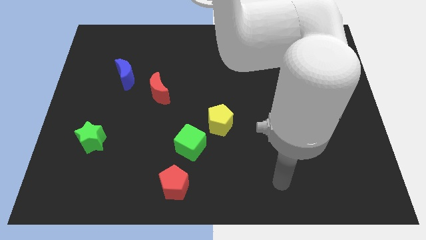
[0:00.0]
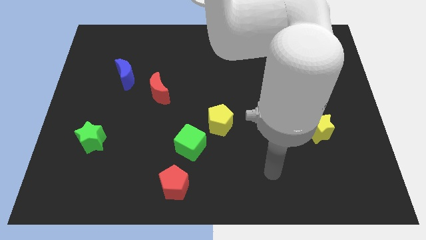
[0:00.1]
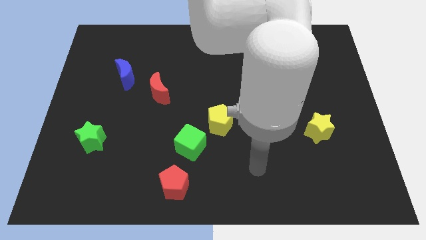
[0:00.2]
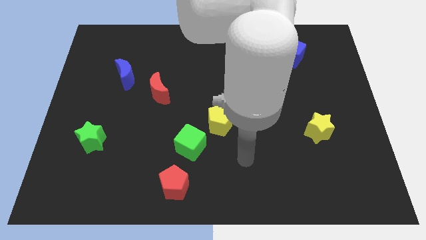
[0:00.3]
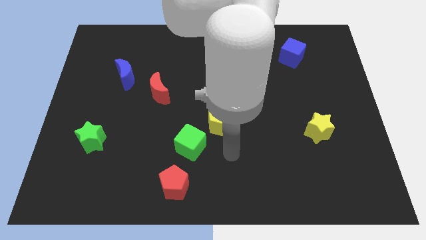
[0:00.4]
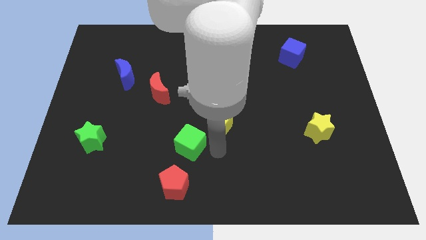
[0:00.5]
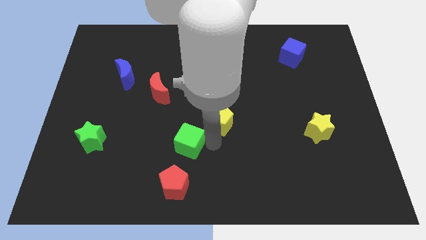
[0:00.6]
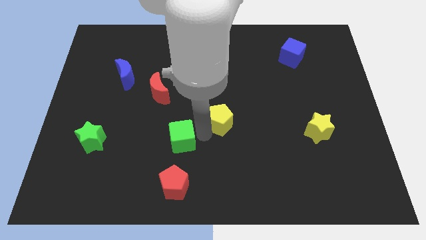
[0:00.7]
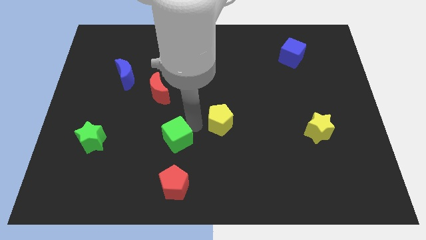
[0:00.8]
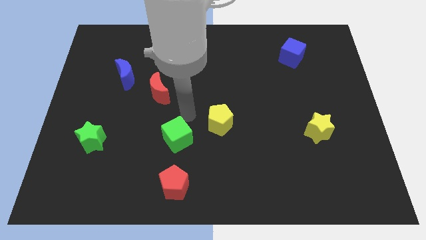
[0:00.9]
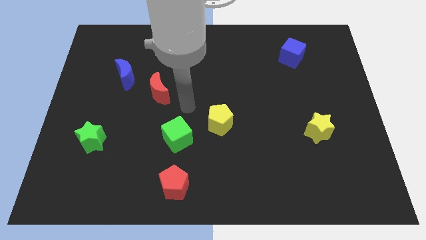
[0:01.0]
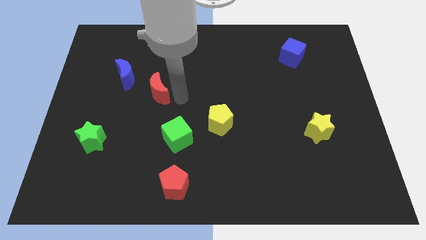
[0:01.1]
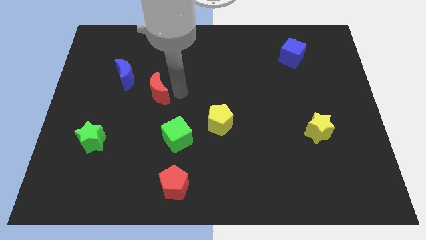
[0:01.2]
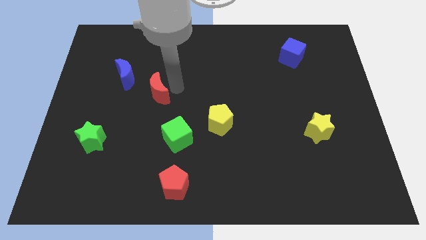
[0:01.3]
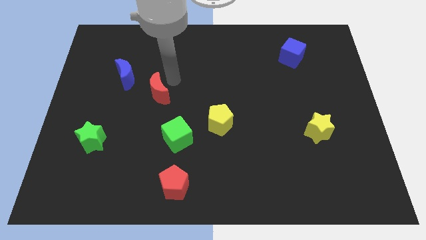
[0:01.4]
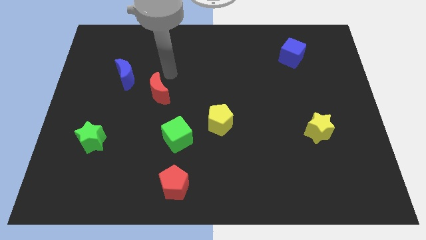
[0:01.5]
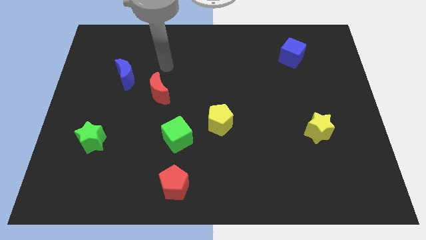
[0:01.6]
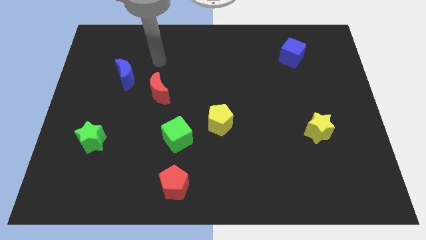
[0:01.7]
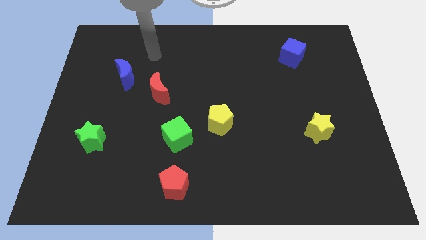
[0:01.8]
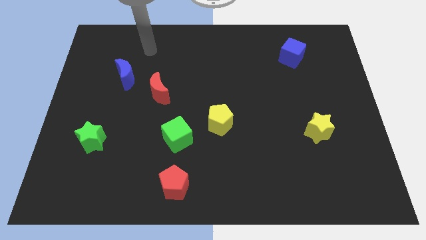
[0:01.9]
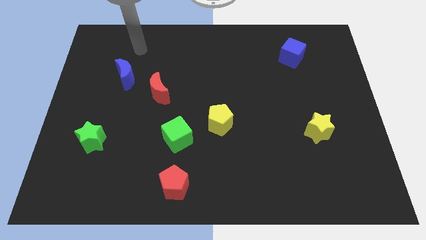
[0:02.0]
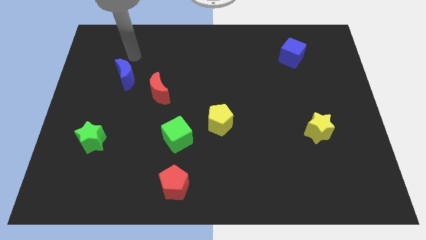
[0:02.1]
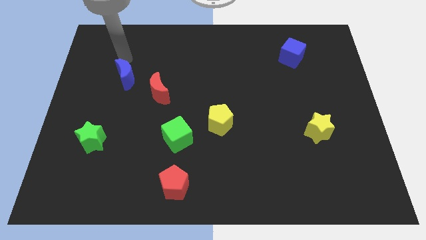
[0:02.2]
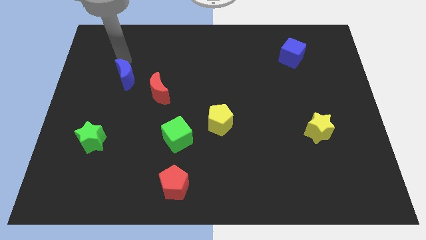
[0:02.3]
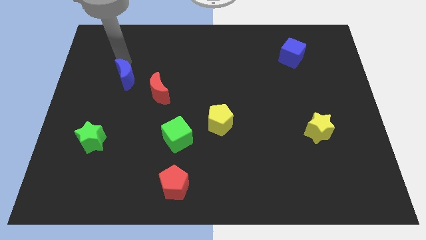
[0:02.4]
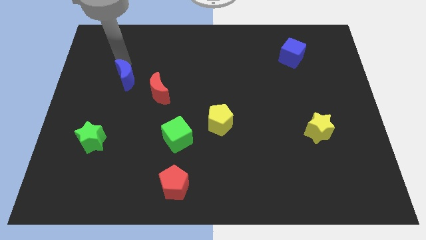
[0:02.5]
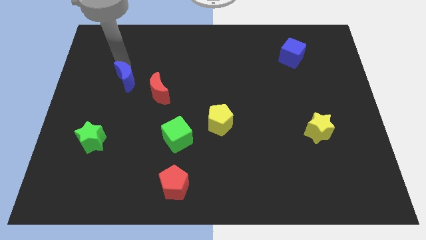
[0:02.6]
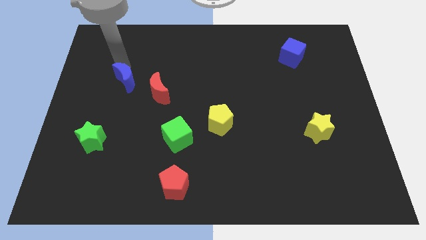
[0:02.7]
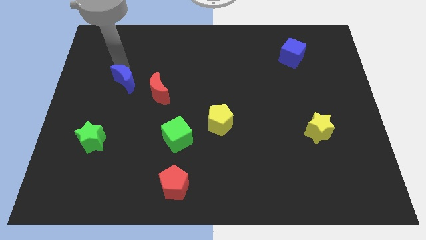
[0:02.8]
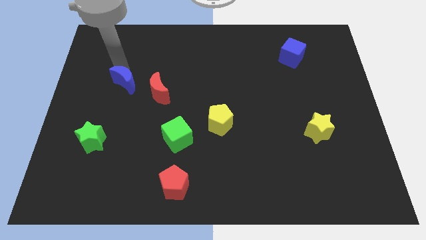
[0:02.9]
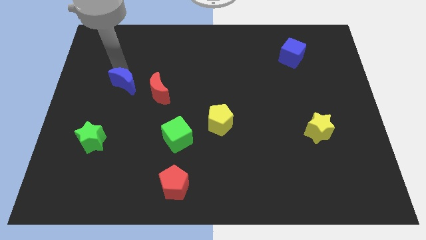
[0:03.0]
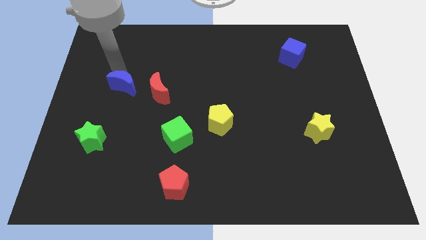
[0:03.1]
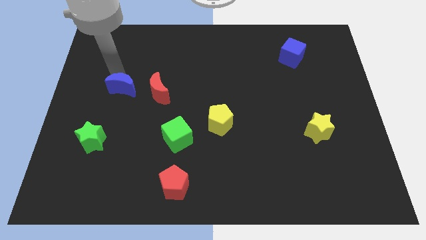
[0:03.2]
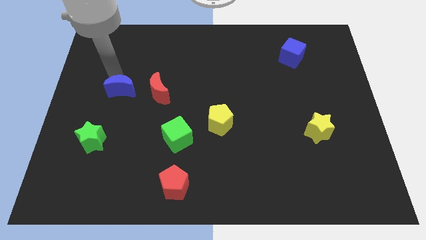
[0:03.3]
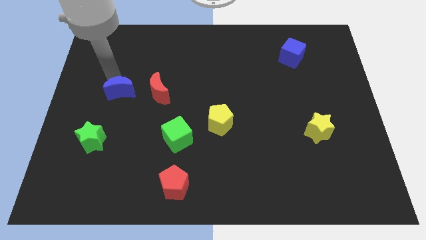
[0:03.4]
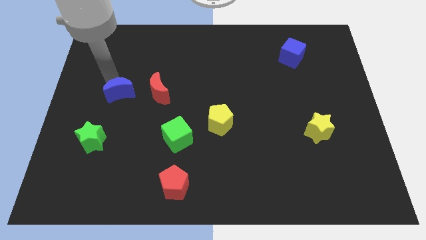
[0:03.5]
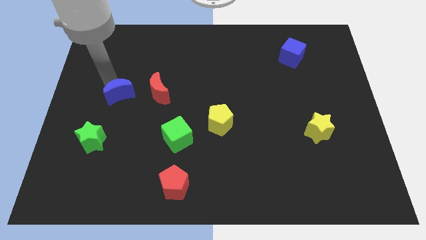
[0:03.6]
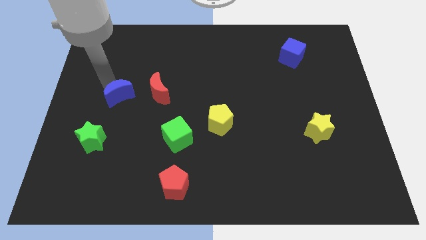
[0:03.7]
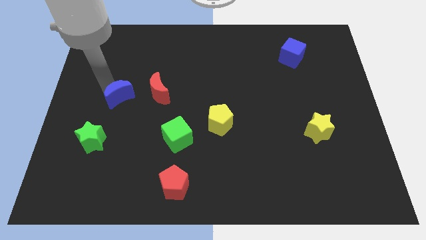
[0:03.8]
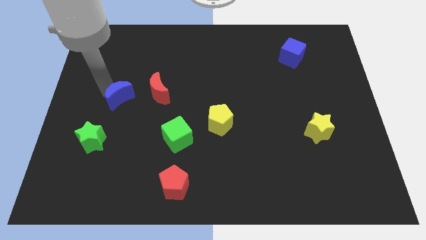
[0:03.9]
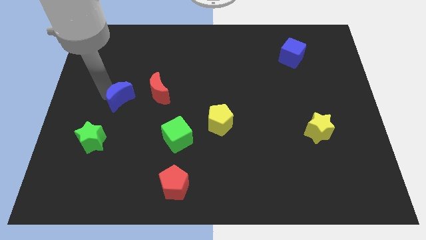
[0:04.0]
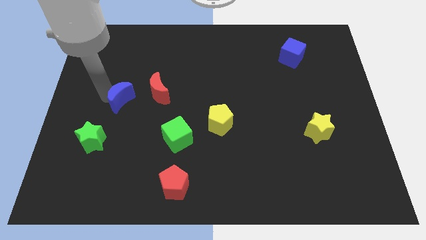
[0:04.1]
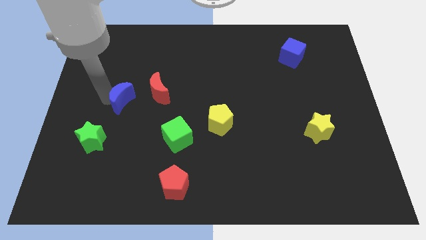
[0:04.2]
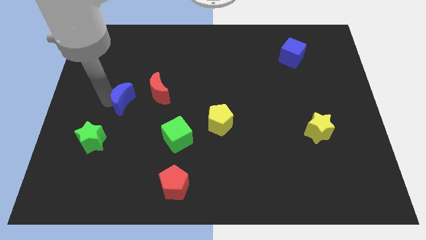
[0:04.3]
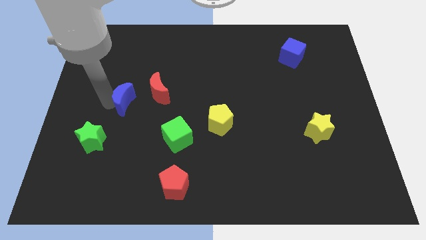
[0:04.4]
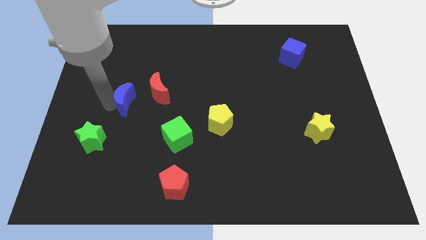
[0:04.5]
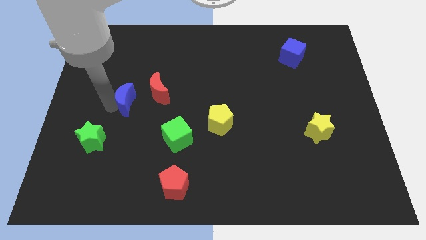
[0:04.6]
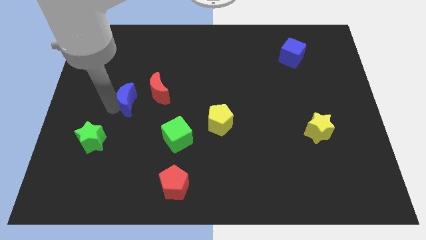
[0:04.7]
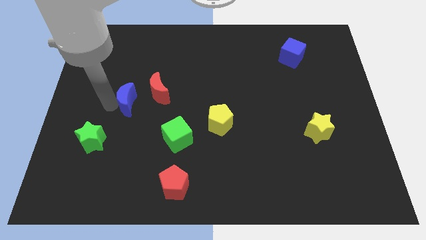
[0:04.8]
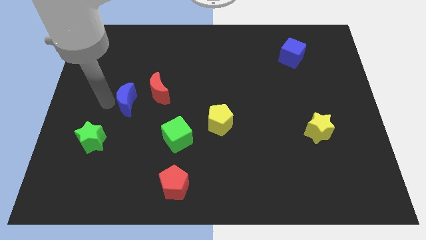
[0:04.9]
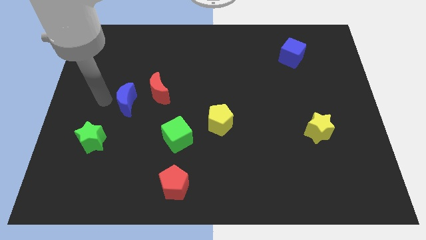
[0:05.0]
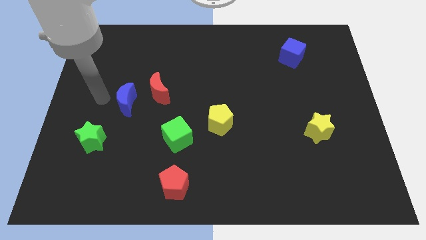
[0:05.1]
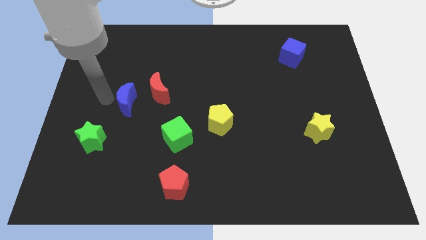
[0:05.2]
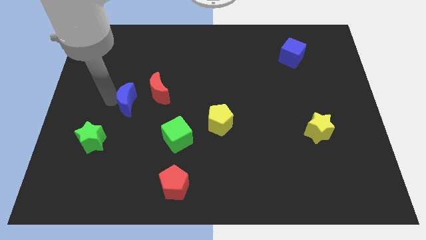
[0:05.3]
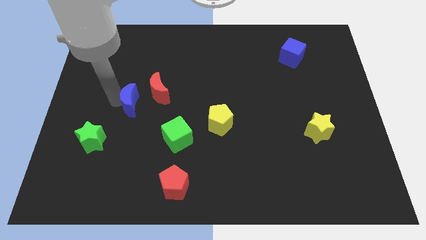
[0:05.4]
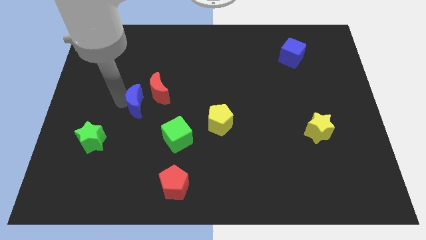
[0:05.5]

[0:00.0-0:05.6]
move the blue moon downwards and then to the right a little

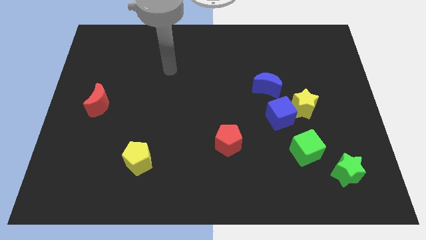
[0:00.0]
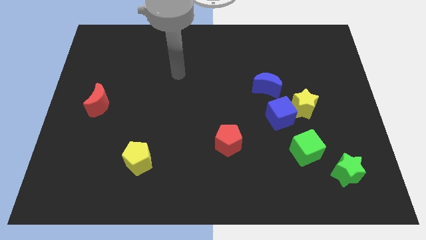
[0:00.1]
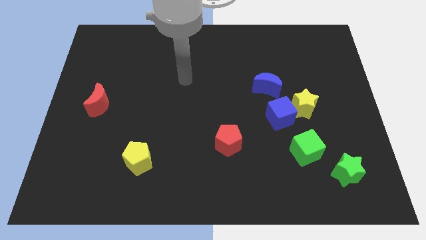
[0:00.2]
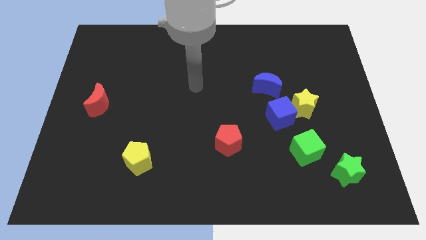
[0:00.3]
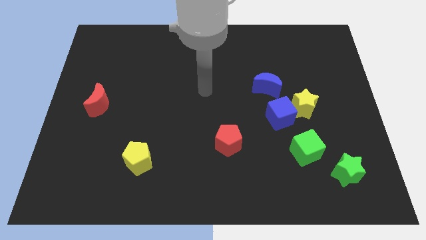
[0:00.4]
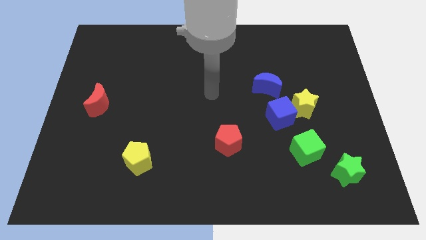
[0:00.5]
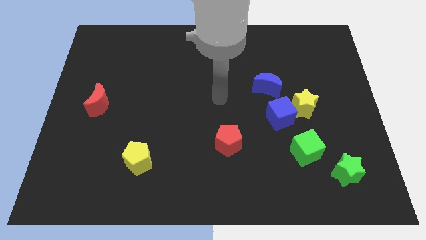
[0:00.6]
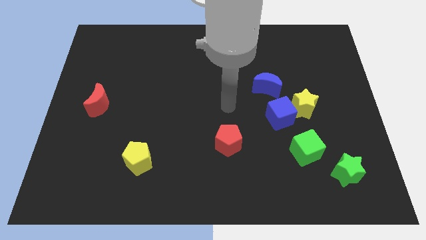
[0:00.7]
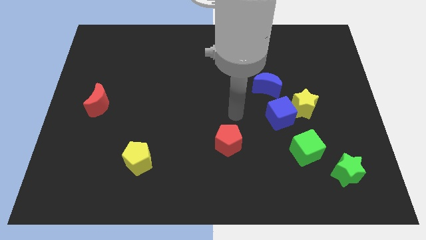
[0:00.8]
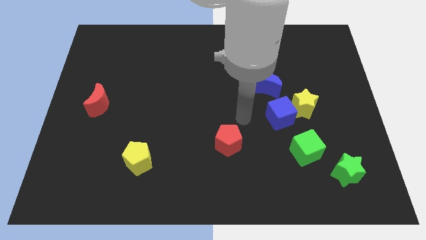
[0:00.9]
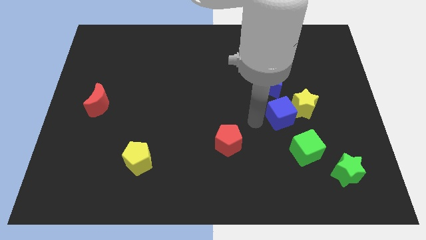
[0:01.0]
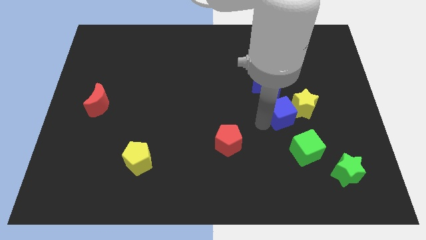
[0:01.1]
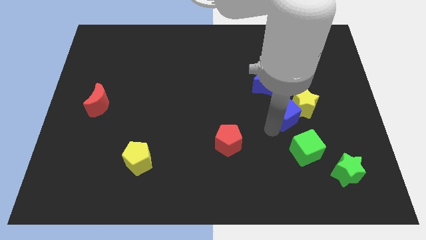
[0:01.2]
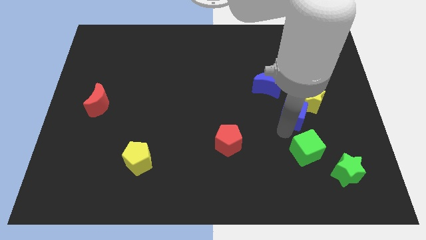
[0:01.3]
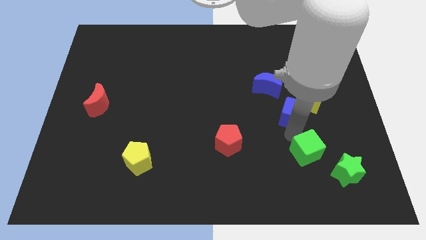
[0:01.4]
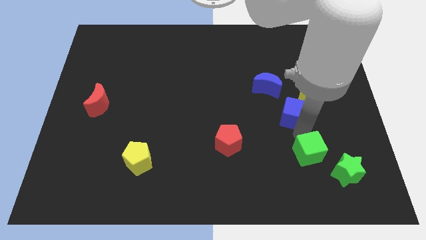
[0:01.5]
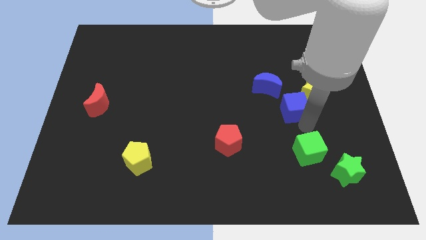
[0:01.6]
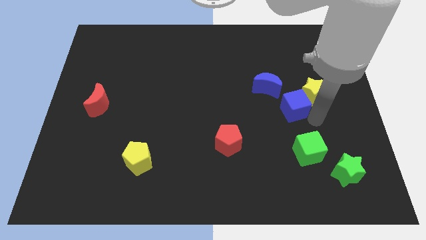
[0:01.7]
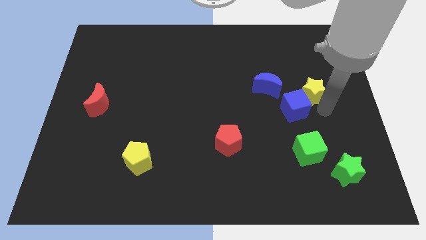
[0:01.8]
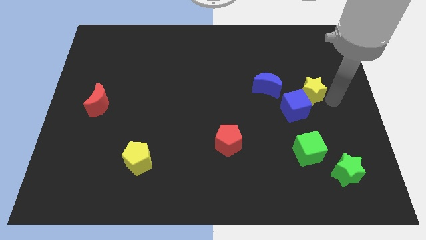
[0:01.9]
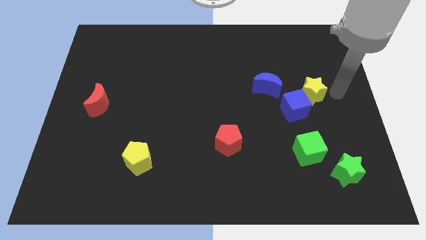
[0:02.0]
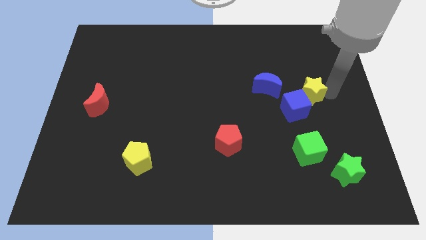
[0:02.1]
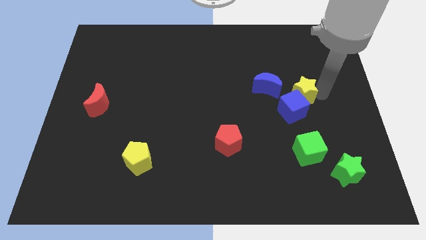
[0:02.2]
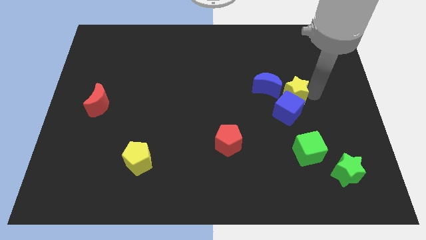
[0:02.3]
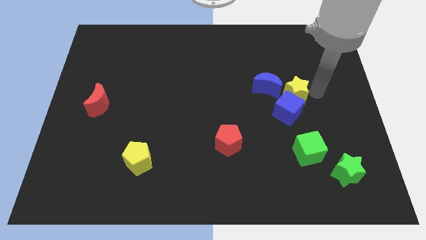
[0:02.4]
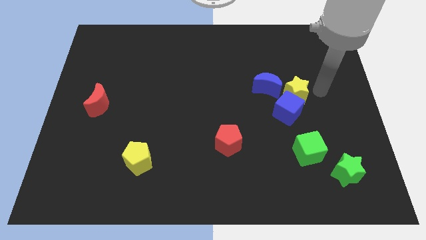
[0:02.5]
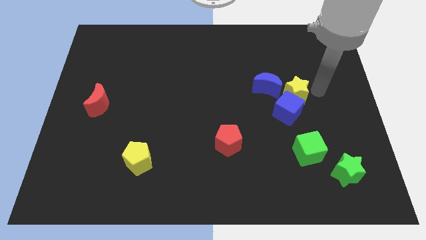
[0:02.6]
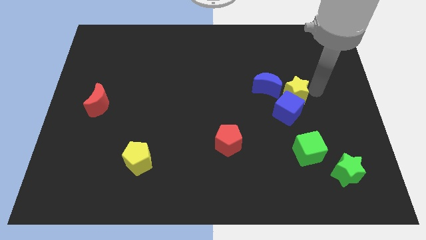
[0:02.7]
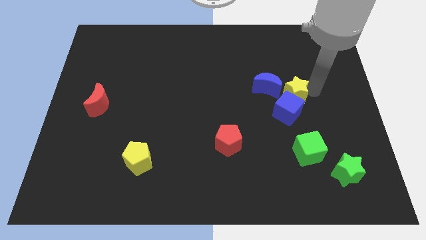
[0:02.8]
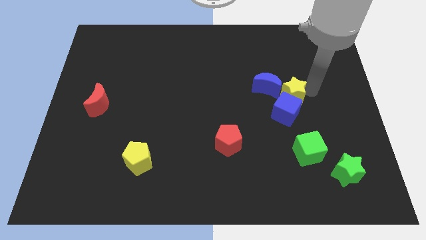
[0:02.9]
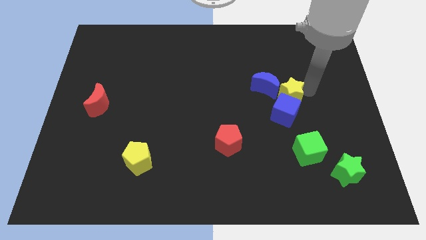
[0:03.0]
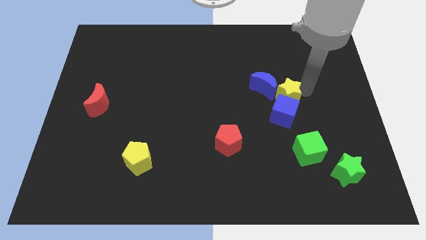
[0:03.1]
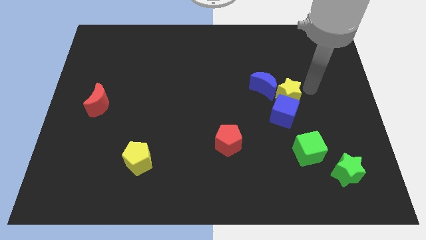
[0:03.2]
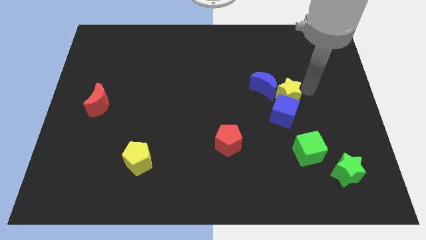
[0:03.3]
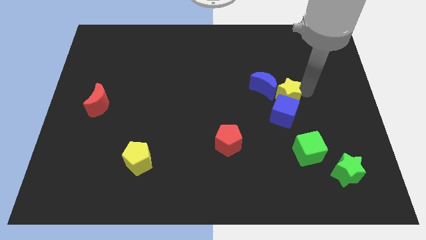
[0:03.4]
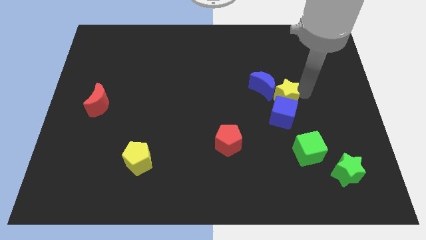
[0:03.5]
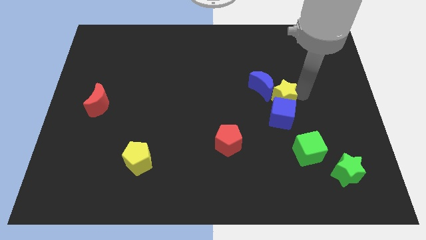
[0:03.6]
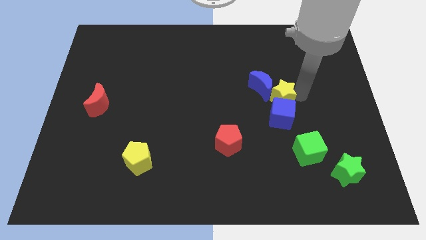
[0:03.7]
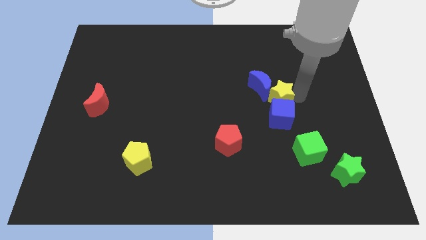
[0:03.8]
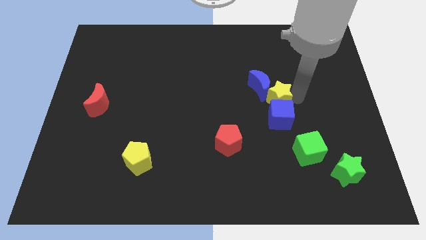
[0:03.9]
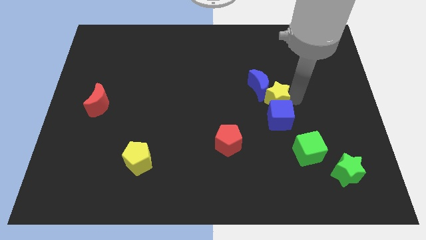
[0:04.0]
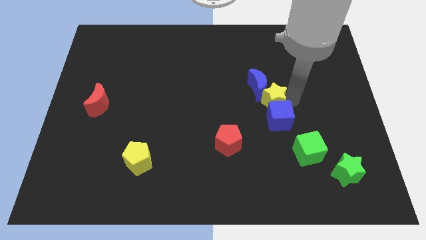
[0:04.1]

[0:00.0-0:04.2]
slightly slide the yellow star to the left
